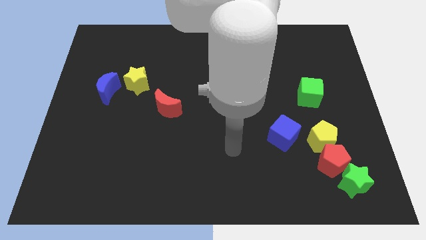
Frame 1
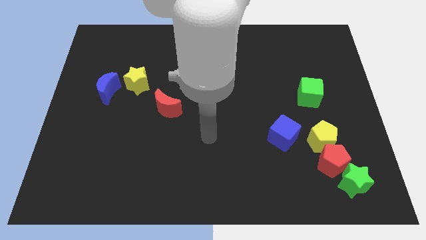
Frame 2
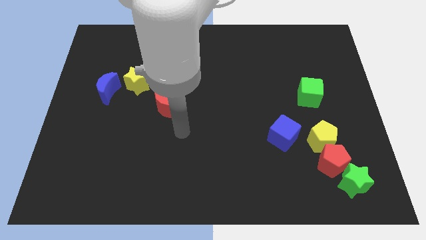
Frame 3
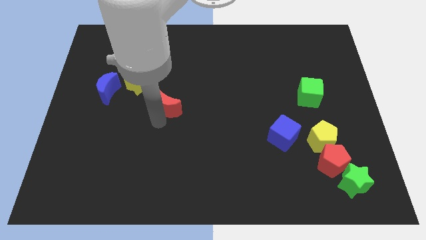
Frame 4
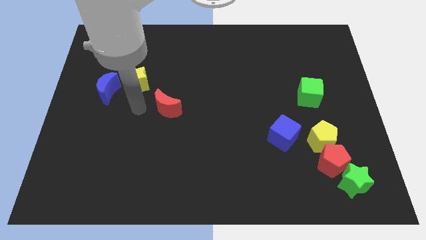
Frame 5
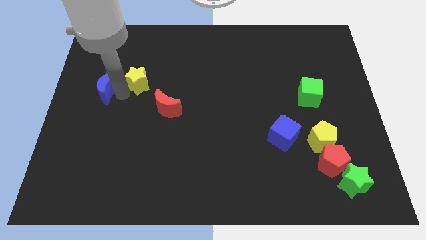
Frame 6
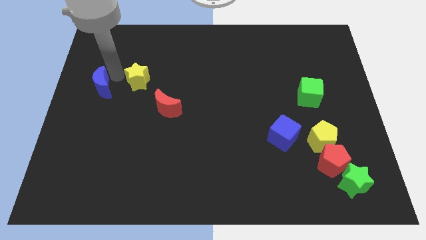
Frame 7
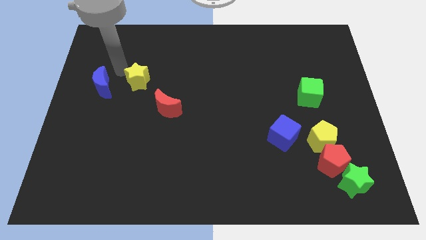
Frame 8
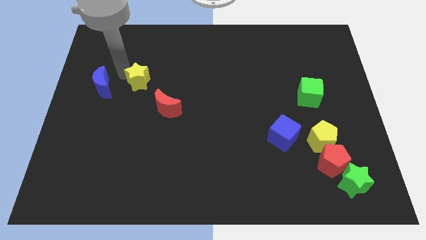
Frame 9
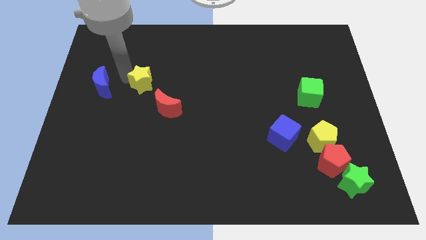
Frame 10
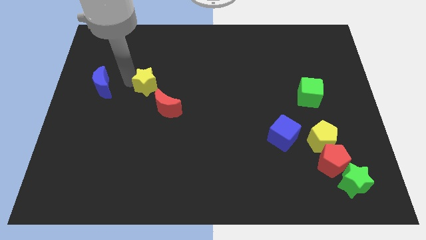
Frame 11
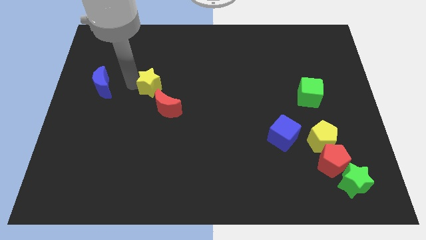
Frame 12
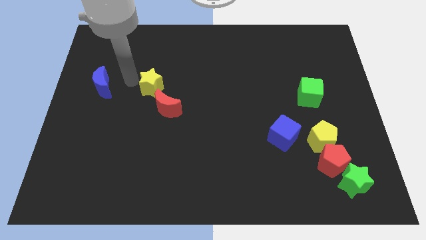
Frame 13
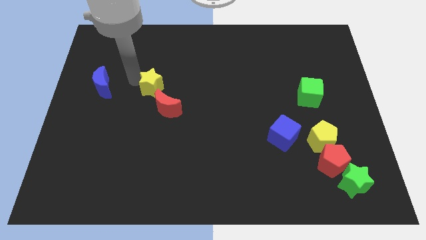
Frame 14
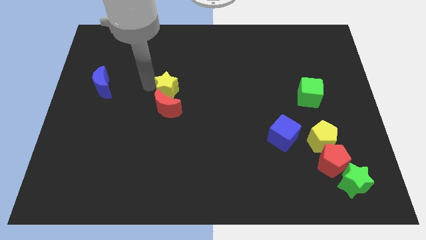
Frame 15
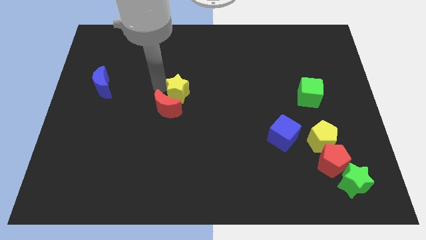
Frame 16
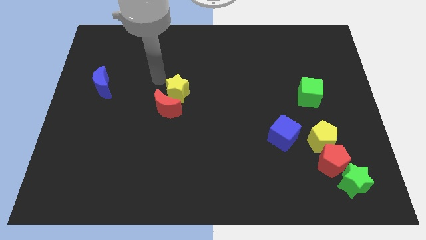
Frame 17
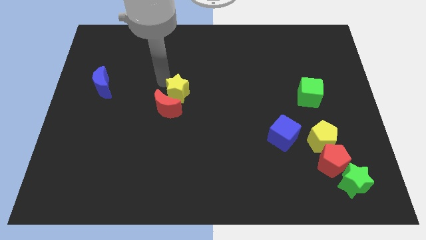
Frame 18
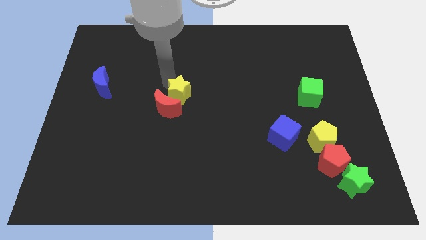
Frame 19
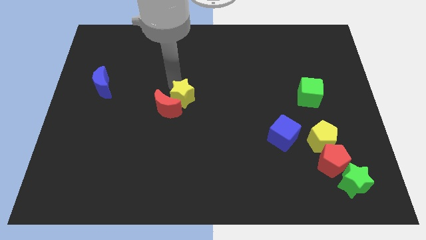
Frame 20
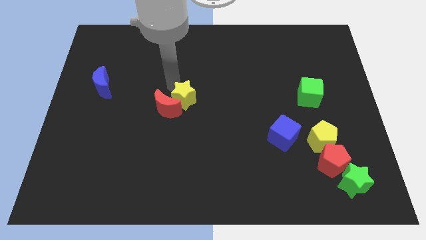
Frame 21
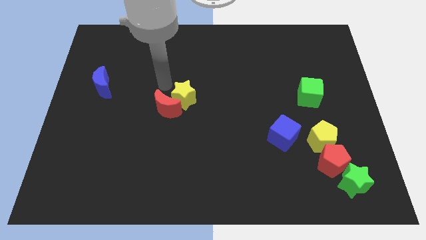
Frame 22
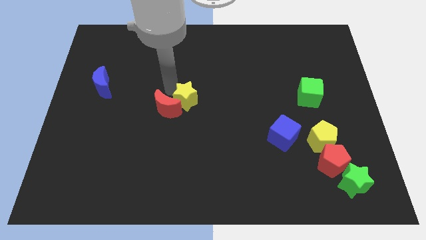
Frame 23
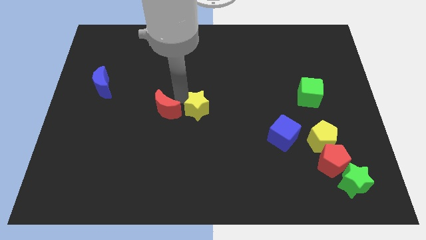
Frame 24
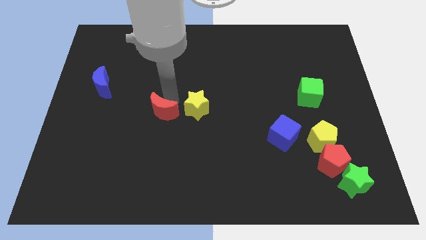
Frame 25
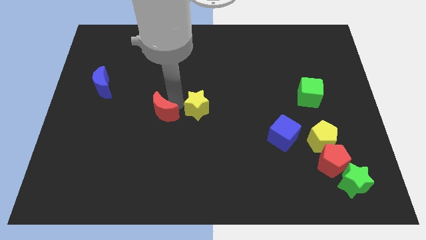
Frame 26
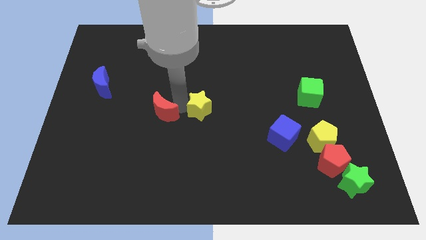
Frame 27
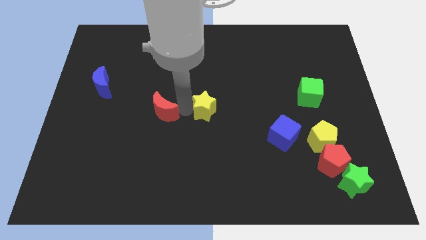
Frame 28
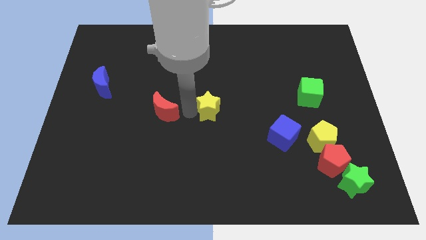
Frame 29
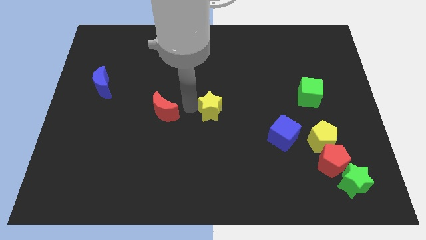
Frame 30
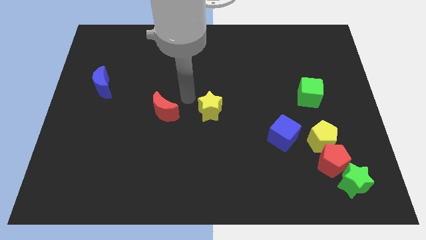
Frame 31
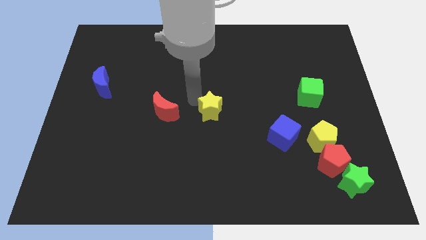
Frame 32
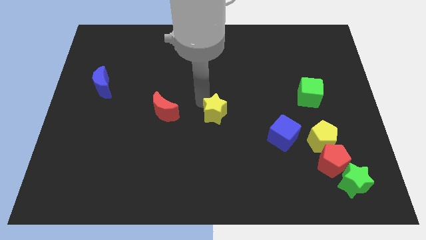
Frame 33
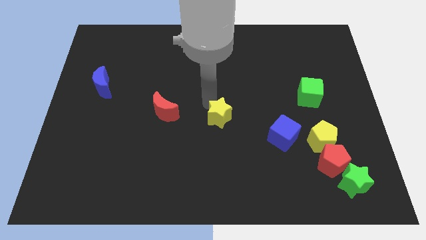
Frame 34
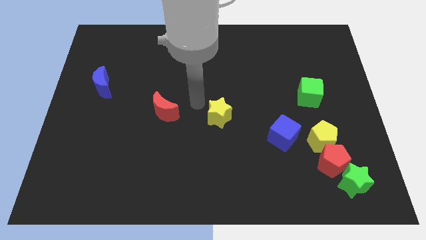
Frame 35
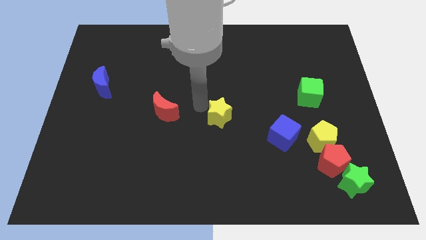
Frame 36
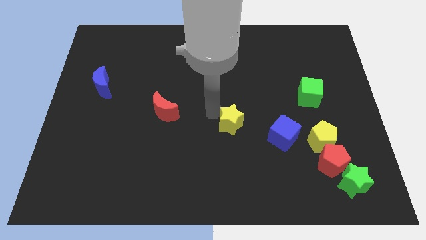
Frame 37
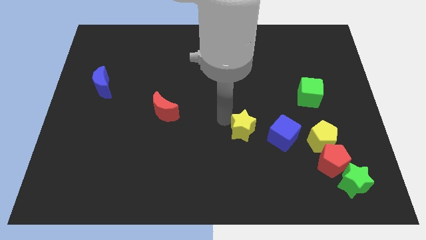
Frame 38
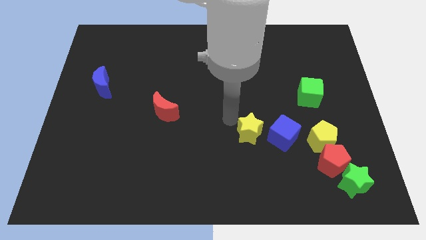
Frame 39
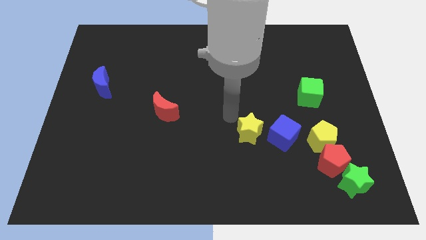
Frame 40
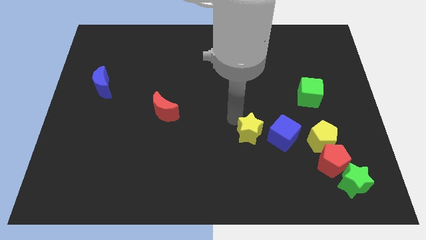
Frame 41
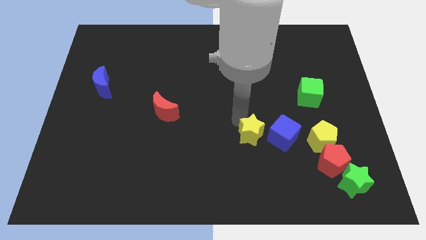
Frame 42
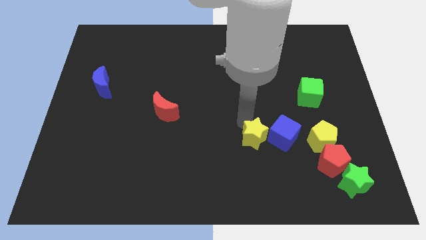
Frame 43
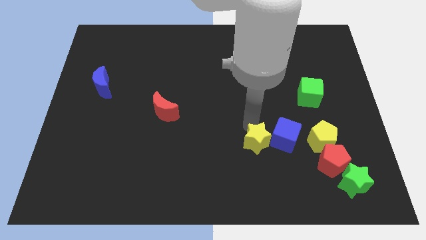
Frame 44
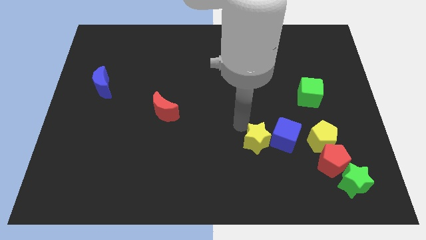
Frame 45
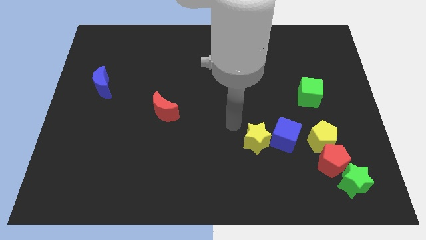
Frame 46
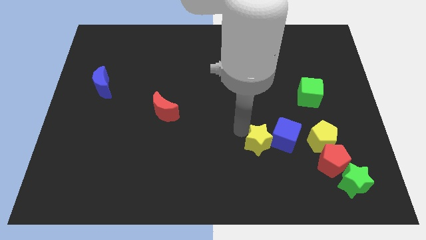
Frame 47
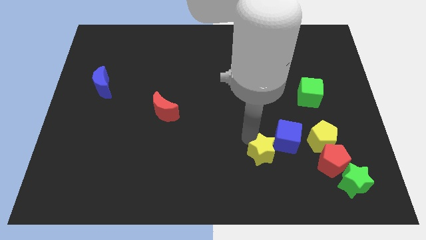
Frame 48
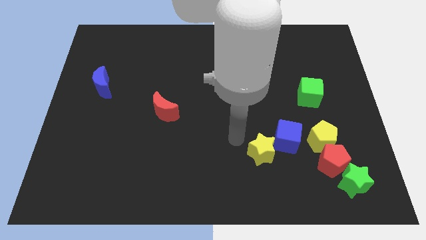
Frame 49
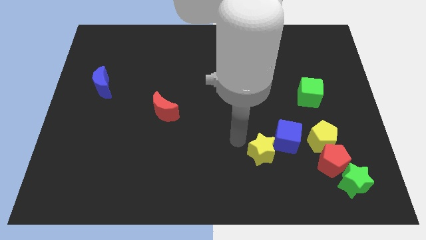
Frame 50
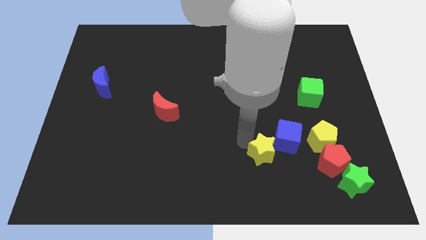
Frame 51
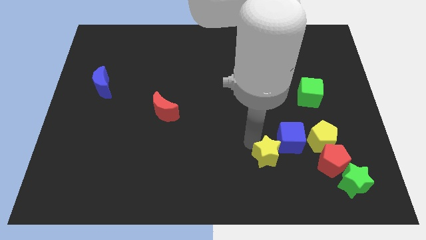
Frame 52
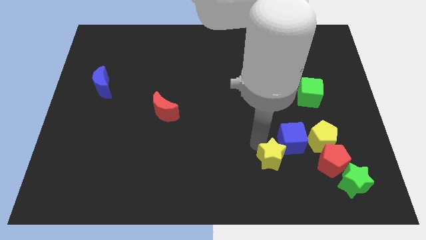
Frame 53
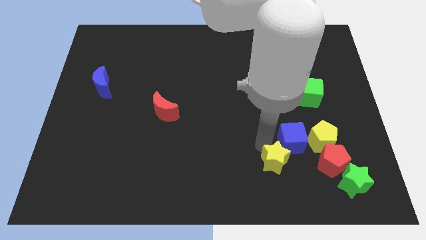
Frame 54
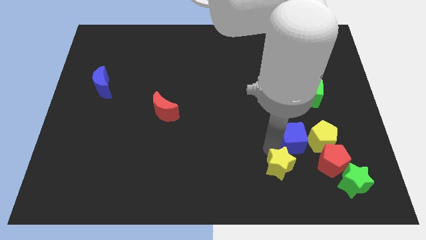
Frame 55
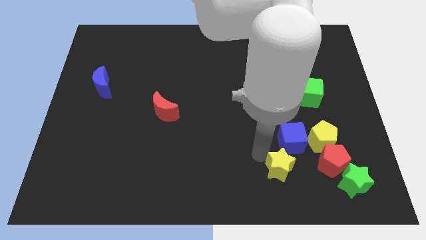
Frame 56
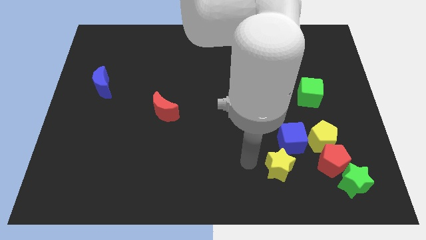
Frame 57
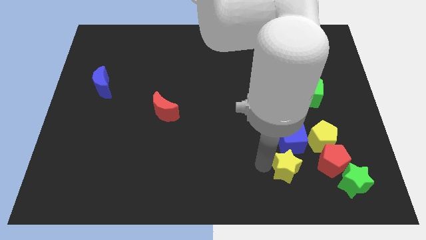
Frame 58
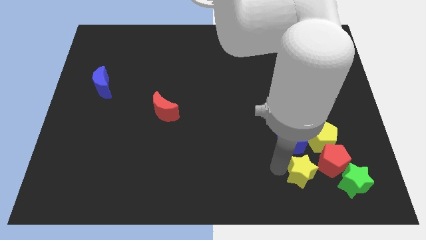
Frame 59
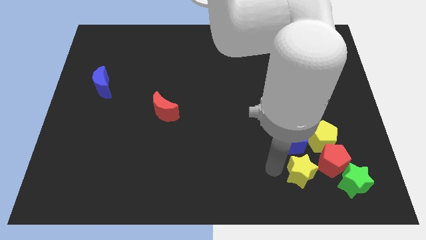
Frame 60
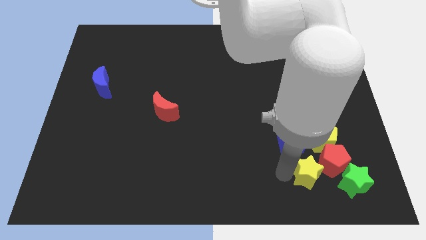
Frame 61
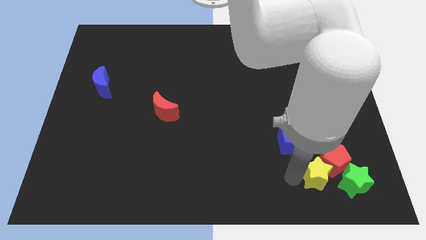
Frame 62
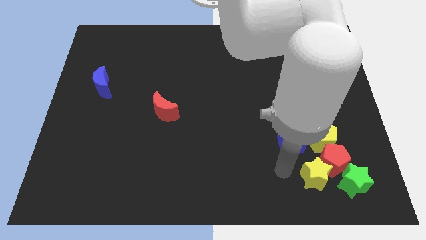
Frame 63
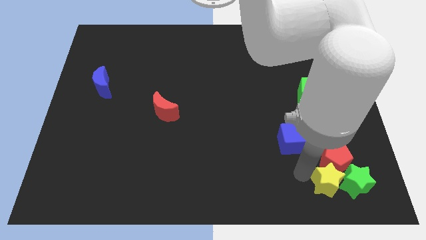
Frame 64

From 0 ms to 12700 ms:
move the yellow star next to the green star
